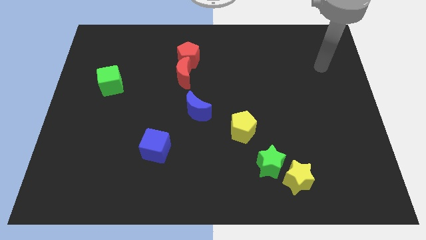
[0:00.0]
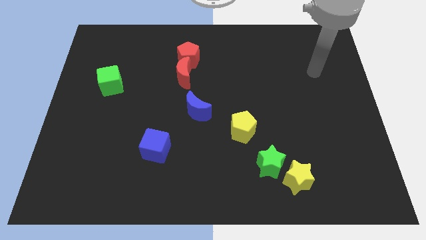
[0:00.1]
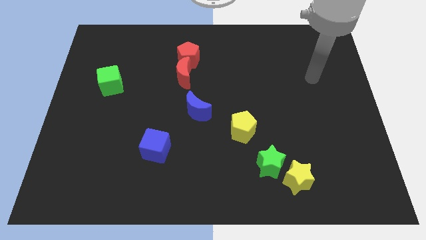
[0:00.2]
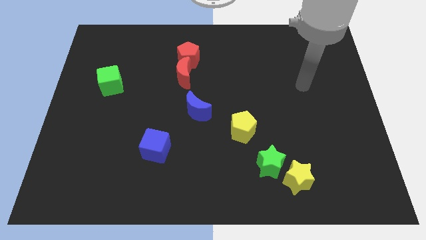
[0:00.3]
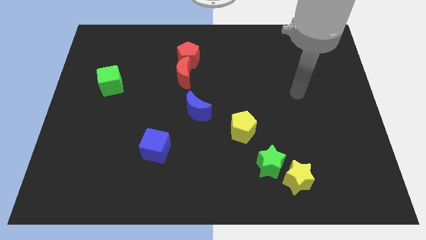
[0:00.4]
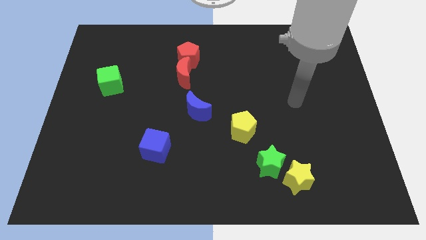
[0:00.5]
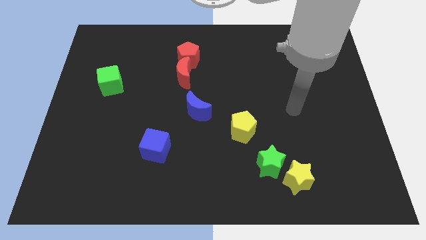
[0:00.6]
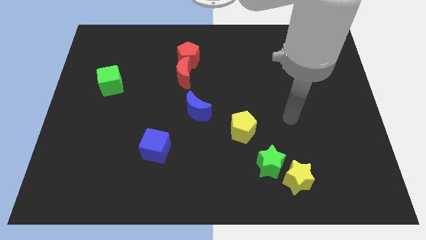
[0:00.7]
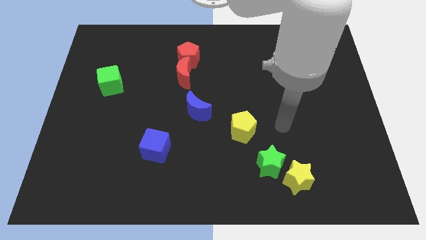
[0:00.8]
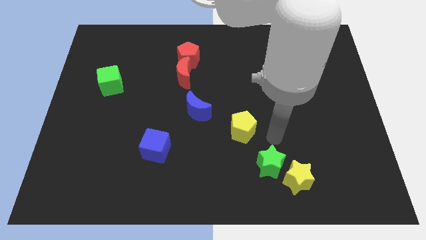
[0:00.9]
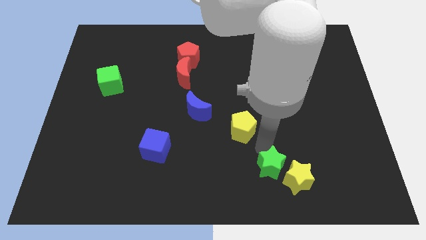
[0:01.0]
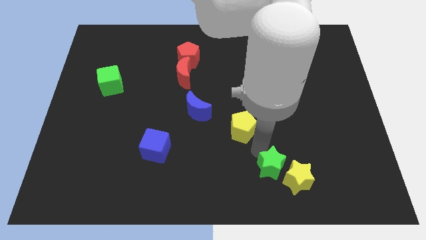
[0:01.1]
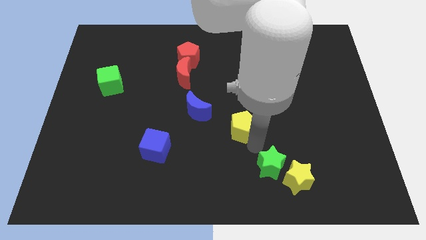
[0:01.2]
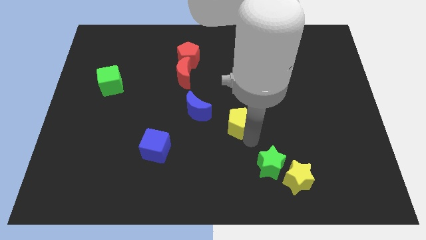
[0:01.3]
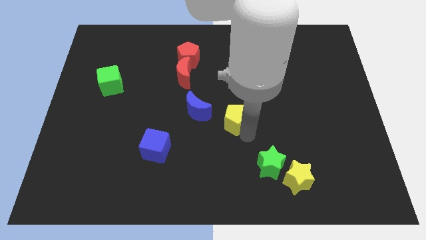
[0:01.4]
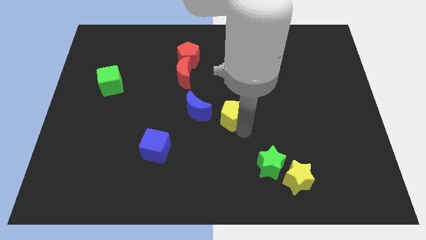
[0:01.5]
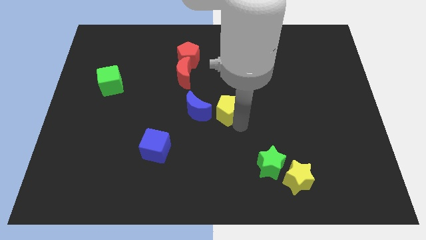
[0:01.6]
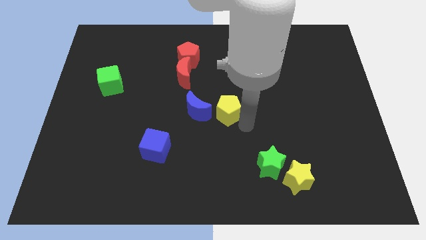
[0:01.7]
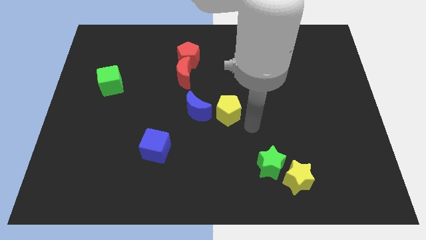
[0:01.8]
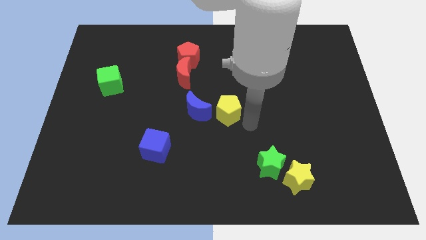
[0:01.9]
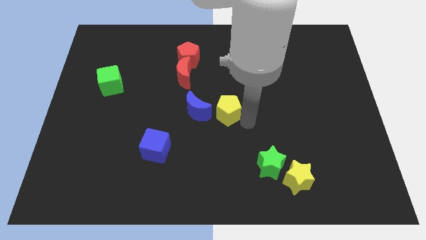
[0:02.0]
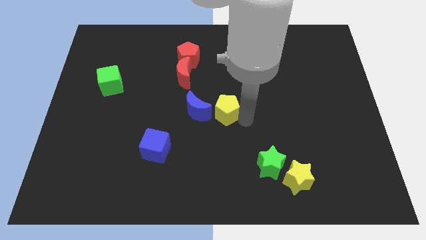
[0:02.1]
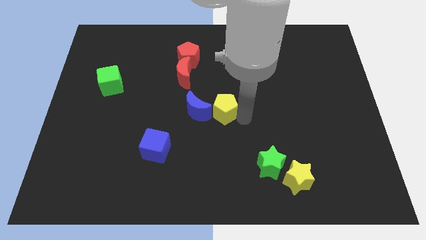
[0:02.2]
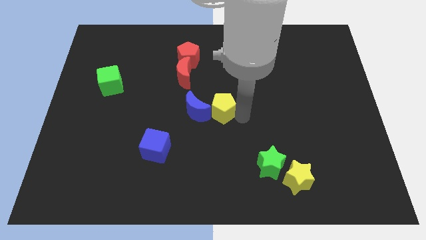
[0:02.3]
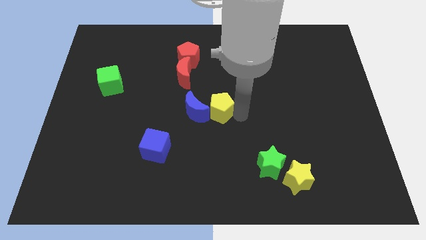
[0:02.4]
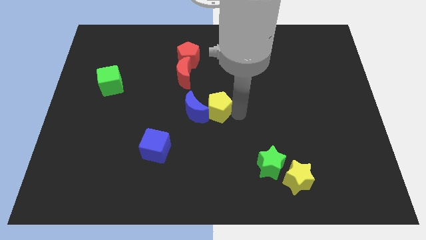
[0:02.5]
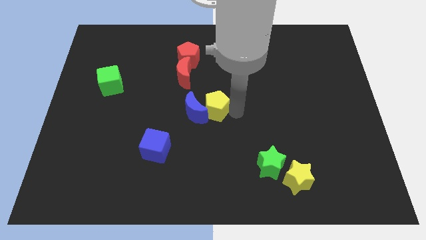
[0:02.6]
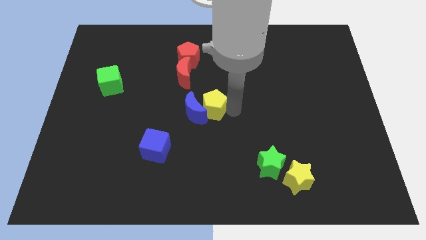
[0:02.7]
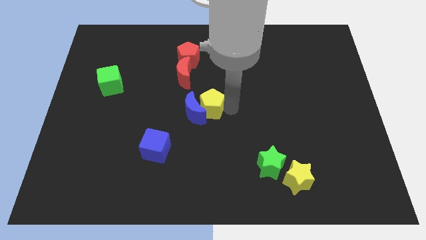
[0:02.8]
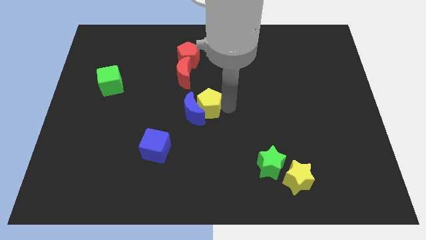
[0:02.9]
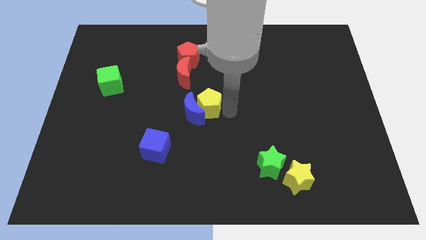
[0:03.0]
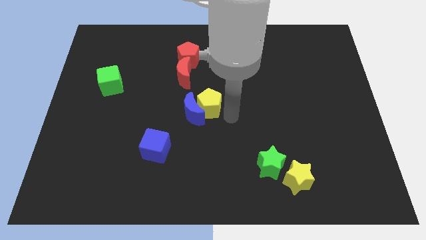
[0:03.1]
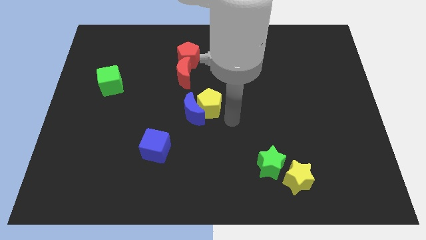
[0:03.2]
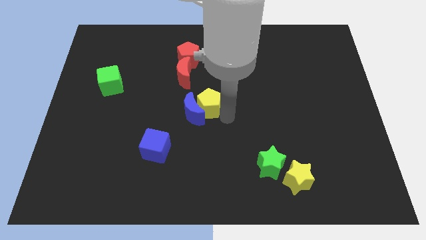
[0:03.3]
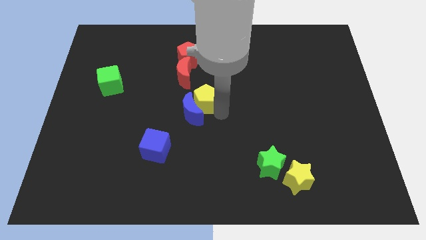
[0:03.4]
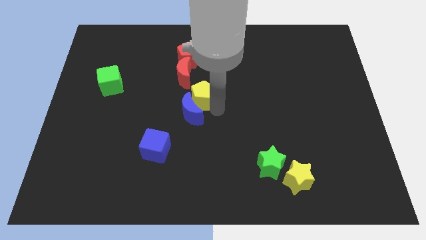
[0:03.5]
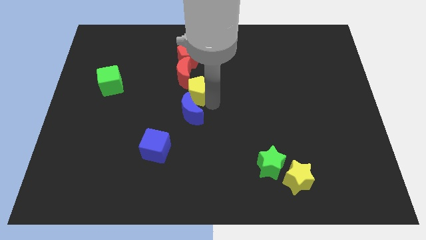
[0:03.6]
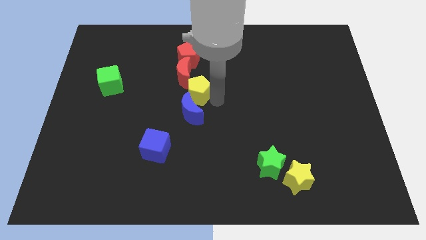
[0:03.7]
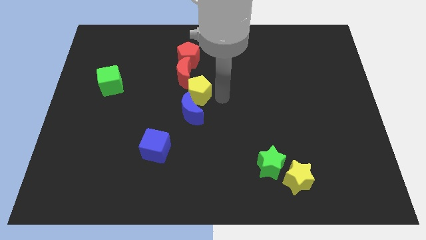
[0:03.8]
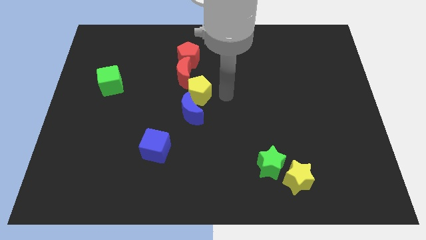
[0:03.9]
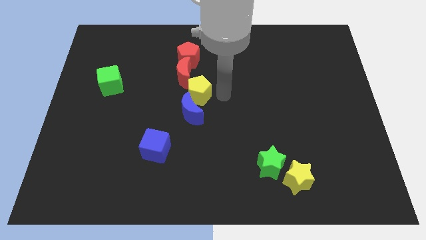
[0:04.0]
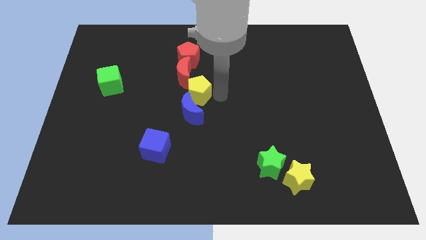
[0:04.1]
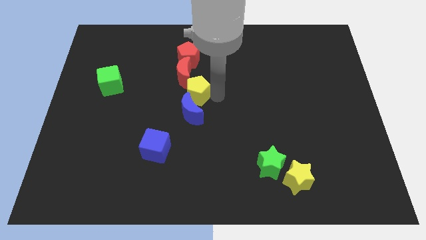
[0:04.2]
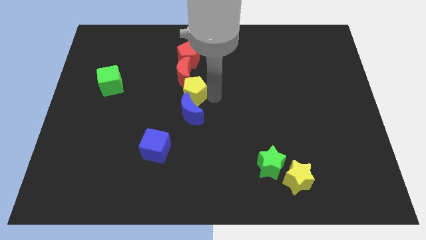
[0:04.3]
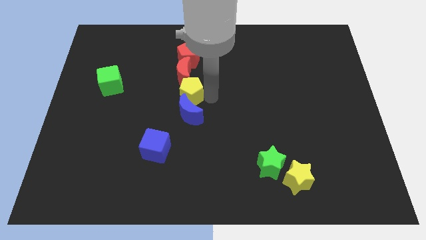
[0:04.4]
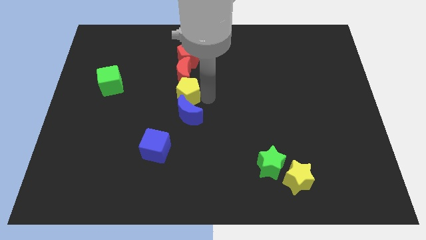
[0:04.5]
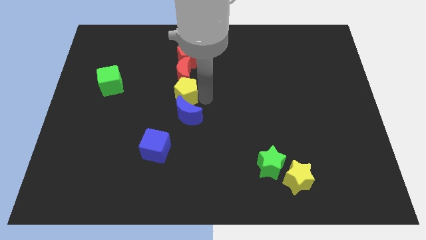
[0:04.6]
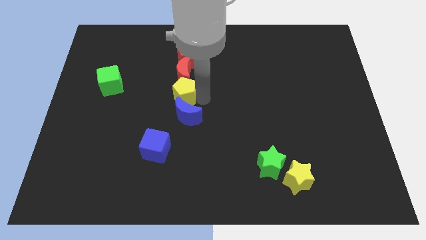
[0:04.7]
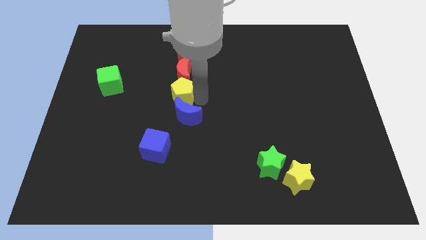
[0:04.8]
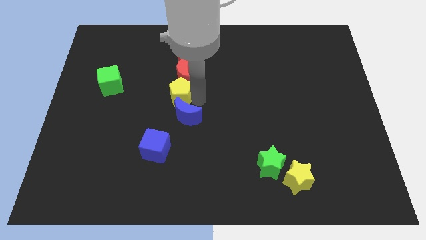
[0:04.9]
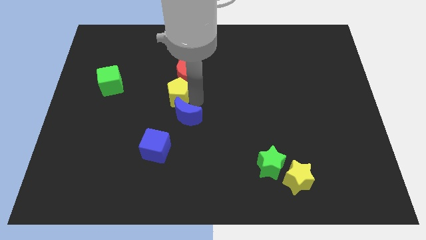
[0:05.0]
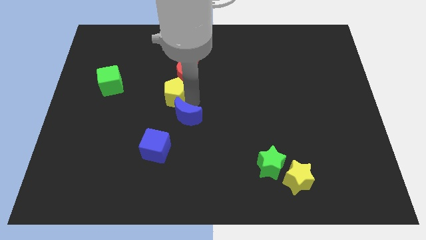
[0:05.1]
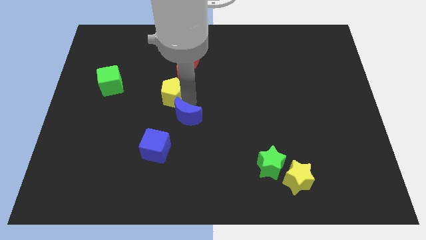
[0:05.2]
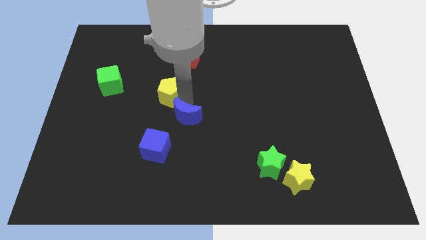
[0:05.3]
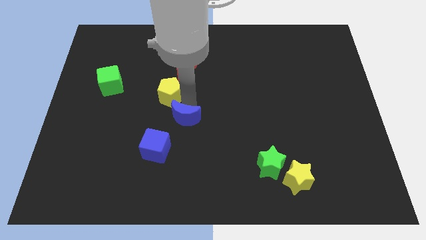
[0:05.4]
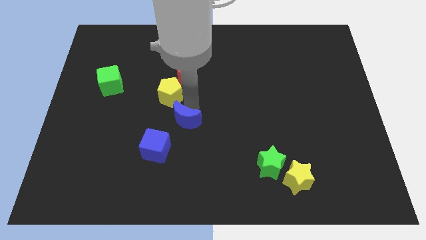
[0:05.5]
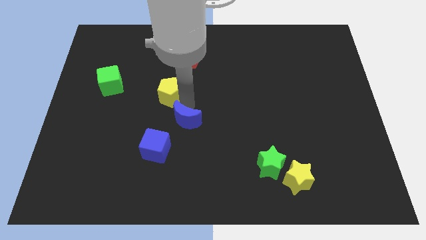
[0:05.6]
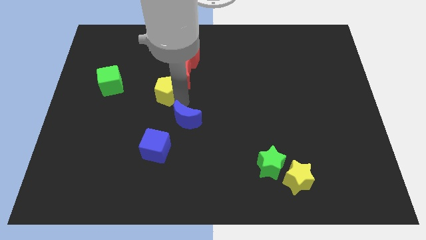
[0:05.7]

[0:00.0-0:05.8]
put the yellow pentagon to the right of the green cube

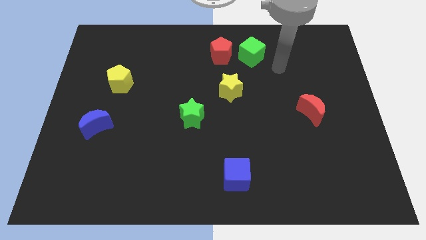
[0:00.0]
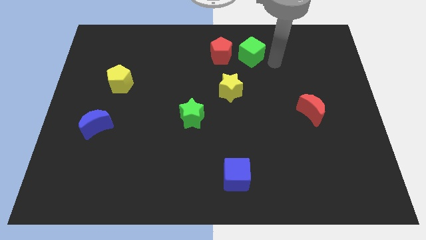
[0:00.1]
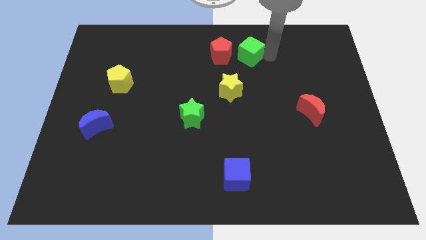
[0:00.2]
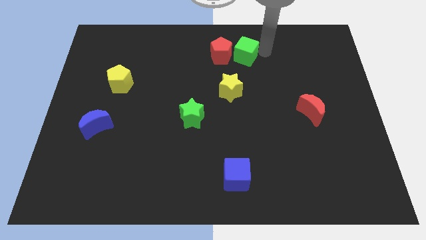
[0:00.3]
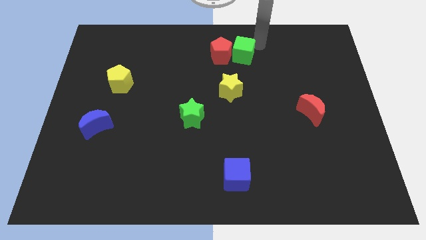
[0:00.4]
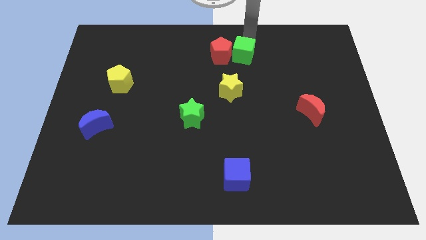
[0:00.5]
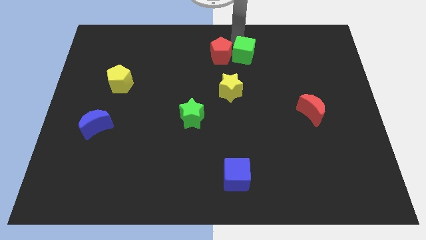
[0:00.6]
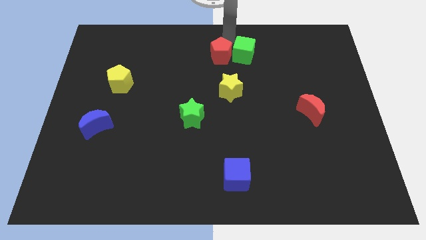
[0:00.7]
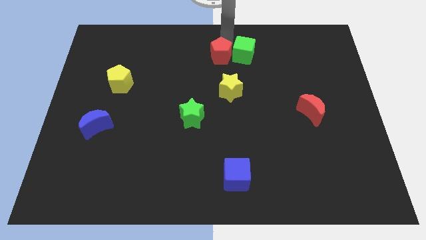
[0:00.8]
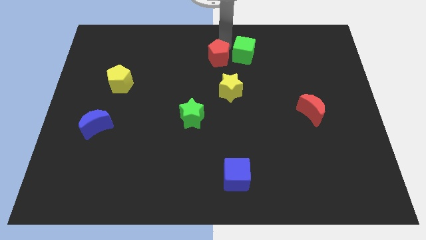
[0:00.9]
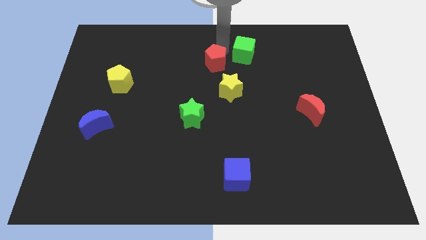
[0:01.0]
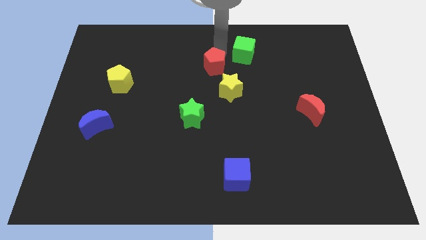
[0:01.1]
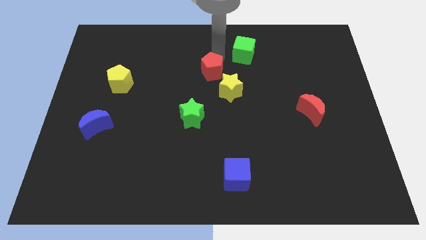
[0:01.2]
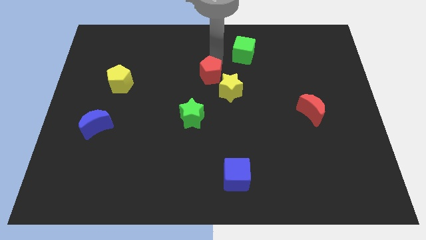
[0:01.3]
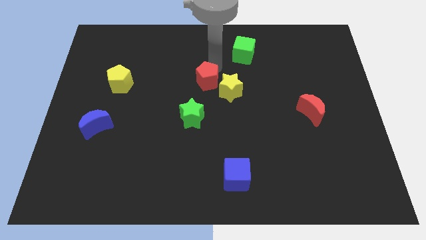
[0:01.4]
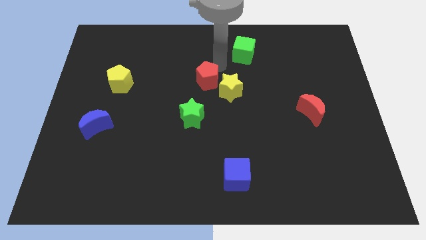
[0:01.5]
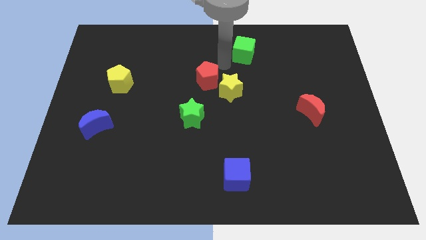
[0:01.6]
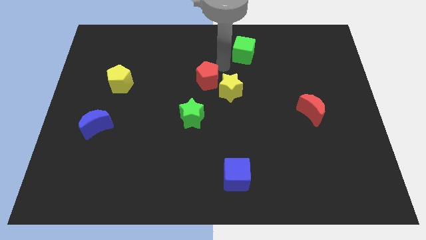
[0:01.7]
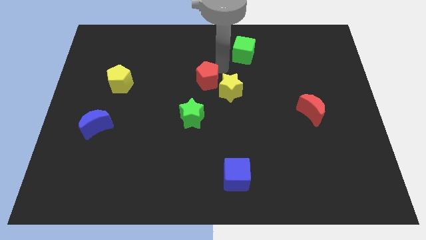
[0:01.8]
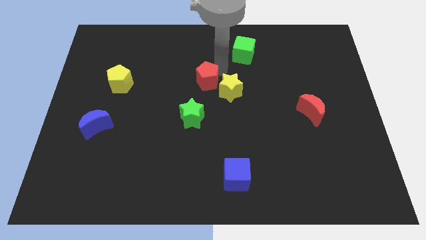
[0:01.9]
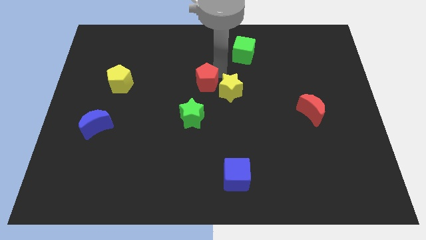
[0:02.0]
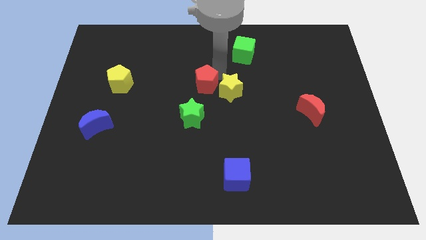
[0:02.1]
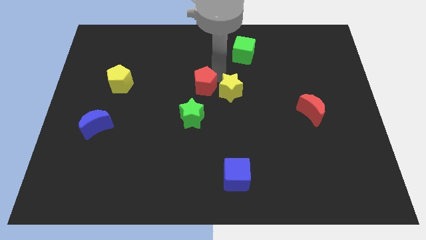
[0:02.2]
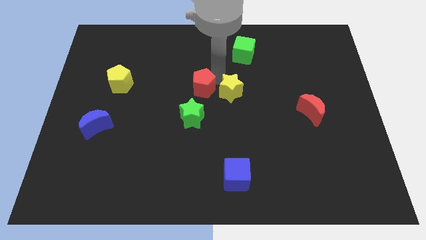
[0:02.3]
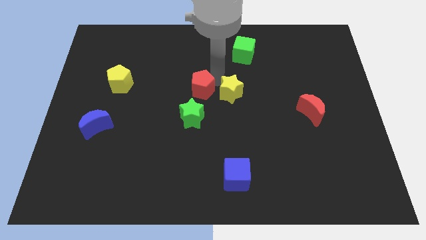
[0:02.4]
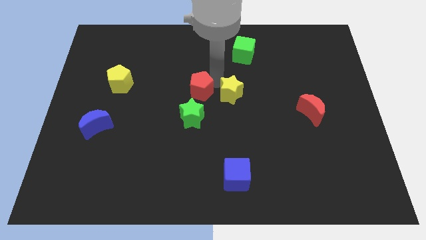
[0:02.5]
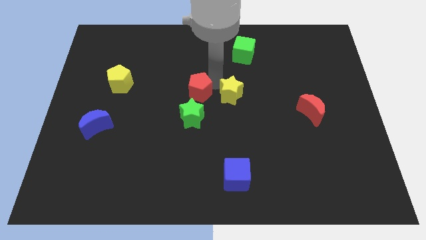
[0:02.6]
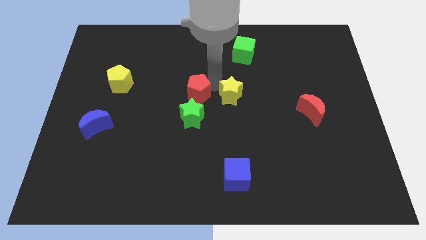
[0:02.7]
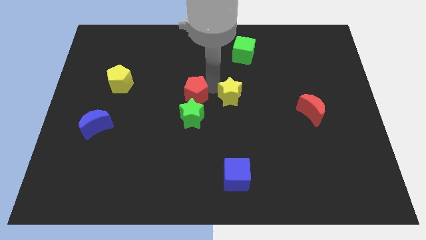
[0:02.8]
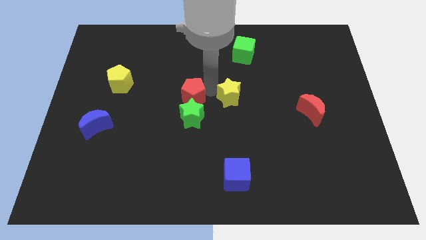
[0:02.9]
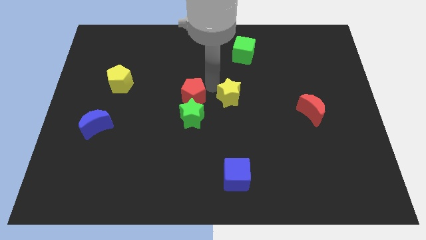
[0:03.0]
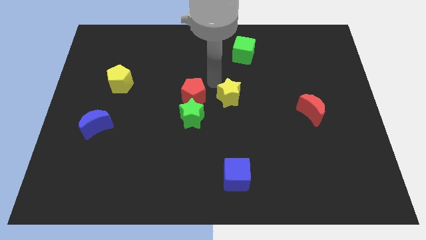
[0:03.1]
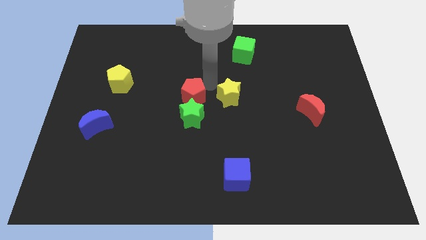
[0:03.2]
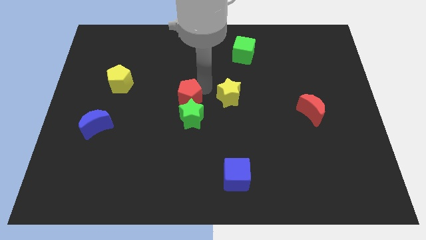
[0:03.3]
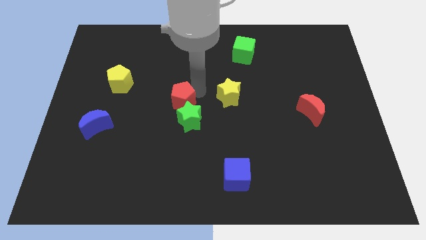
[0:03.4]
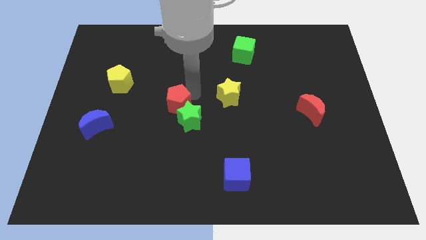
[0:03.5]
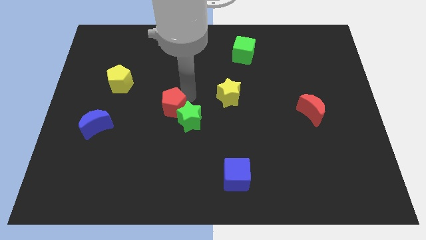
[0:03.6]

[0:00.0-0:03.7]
push the red pentagon just left of the green star
